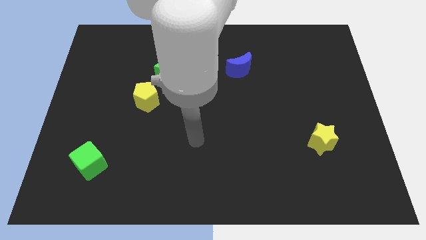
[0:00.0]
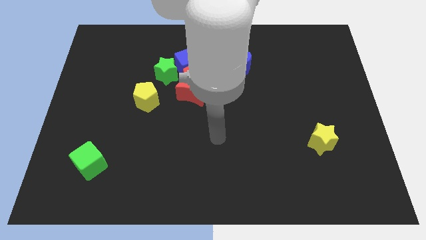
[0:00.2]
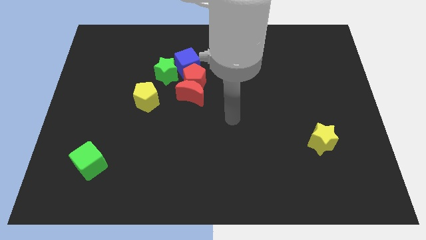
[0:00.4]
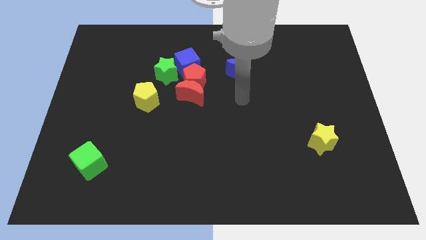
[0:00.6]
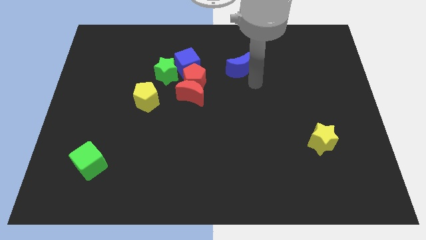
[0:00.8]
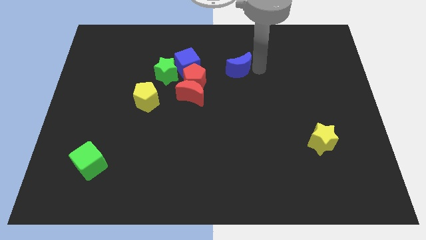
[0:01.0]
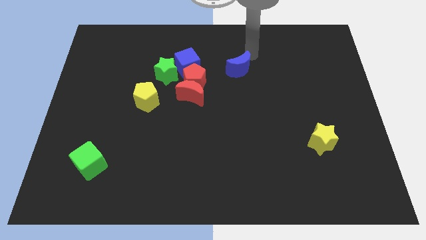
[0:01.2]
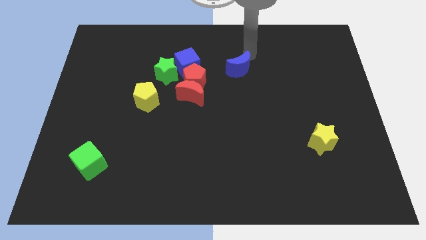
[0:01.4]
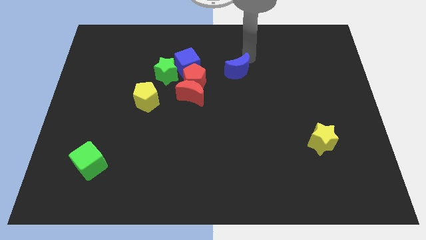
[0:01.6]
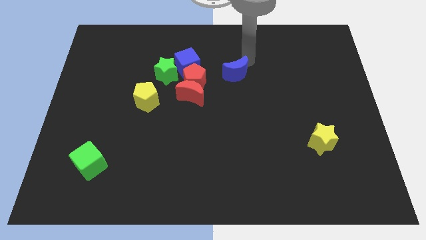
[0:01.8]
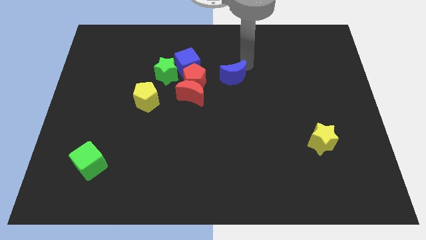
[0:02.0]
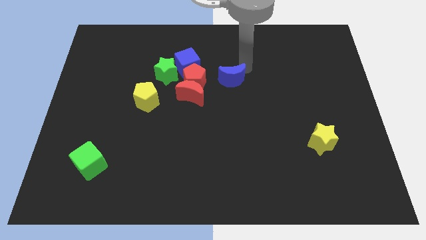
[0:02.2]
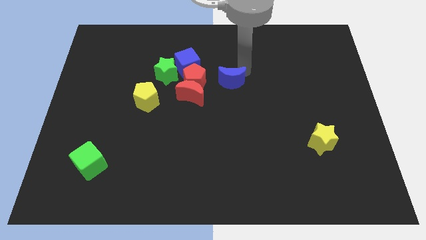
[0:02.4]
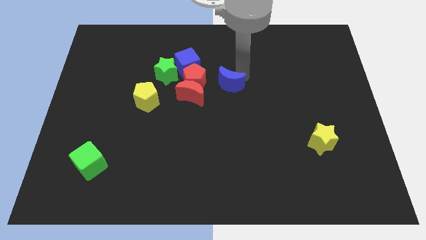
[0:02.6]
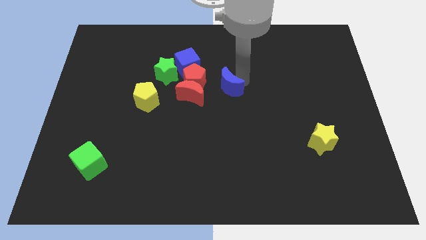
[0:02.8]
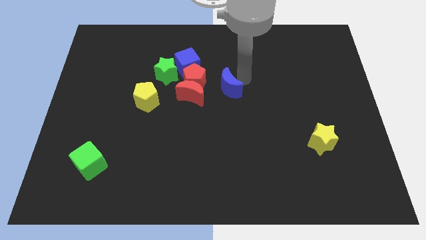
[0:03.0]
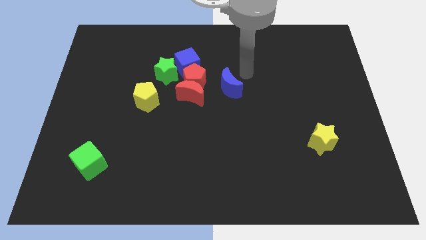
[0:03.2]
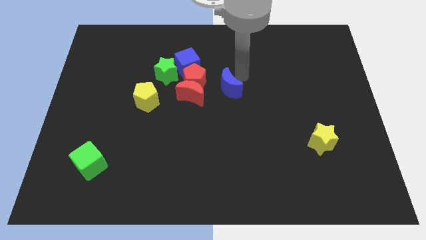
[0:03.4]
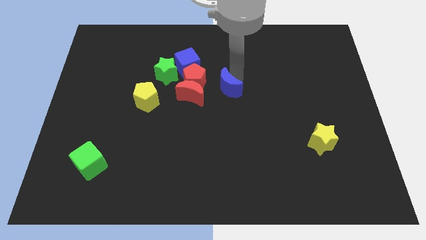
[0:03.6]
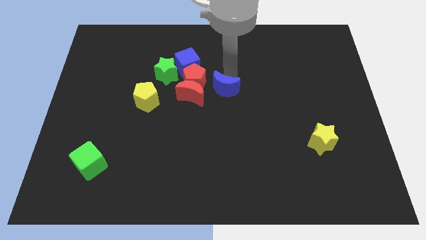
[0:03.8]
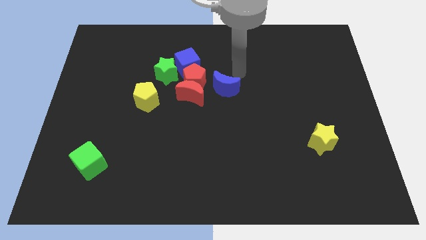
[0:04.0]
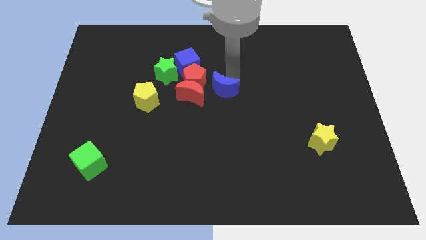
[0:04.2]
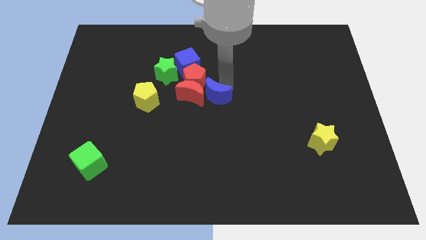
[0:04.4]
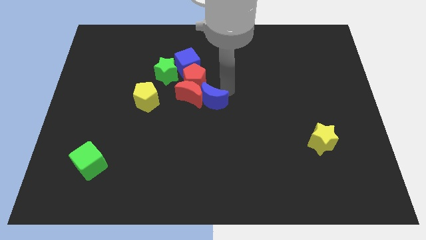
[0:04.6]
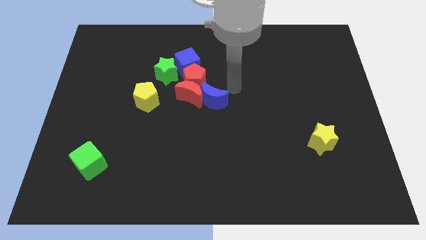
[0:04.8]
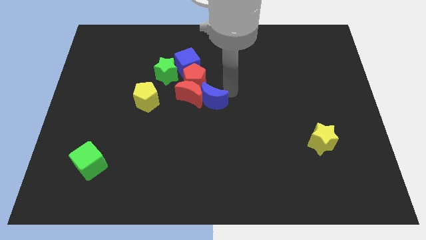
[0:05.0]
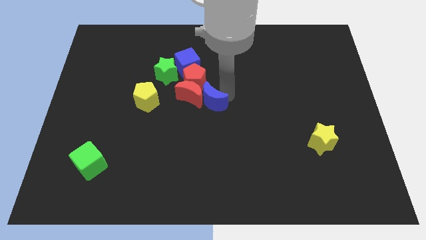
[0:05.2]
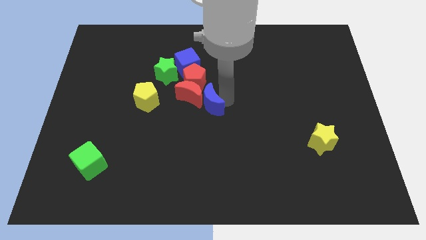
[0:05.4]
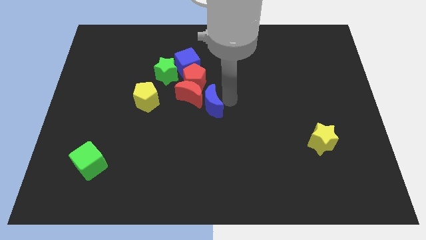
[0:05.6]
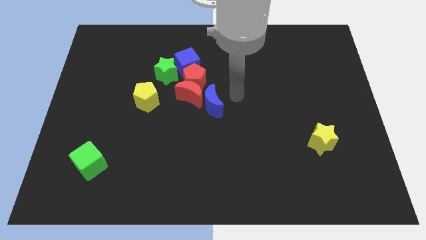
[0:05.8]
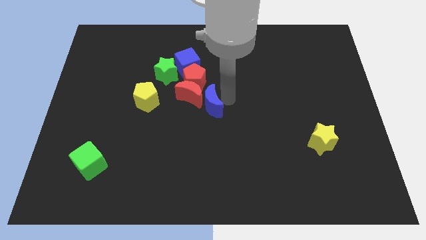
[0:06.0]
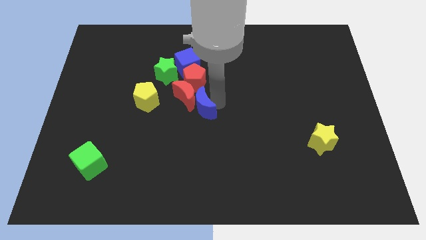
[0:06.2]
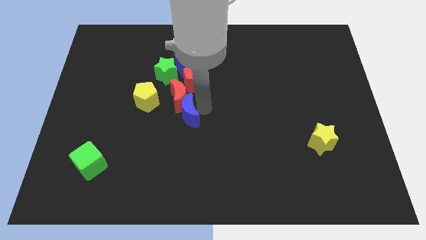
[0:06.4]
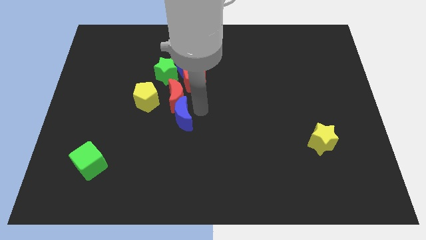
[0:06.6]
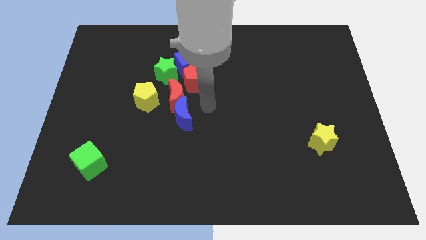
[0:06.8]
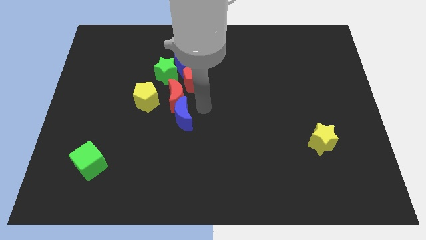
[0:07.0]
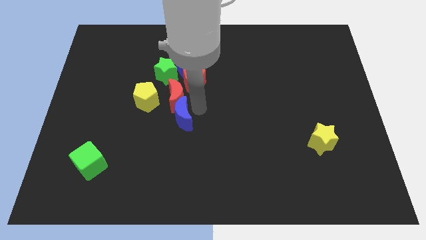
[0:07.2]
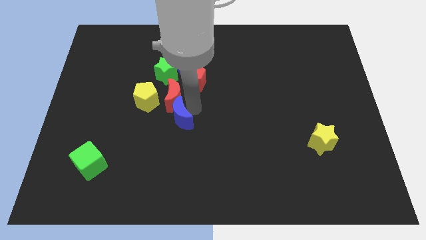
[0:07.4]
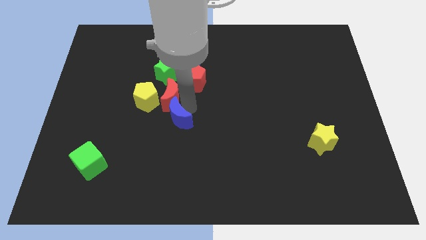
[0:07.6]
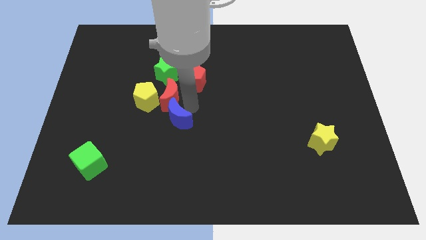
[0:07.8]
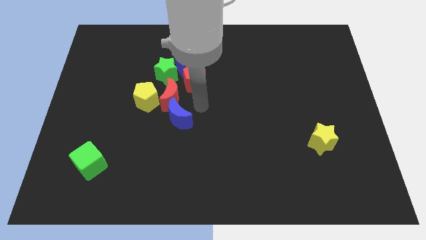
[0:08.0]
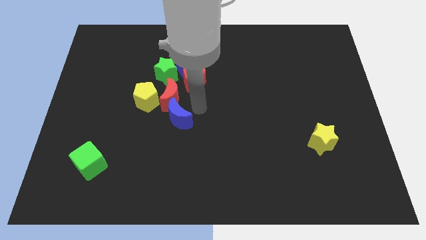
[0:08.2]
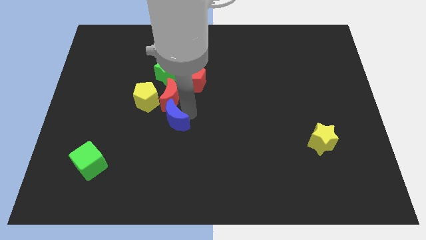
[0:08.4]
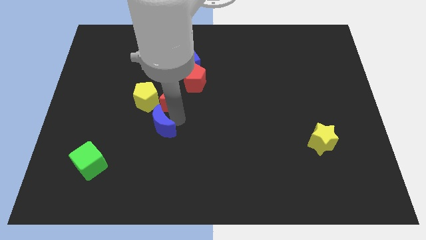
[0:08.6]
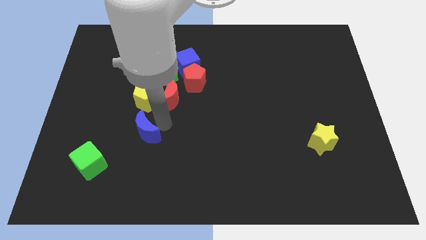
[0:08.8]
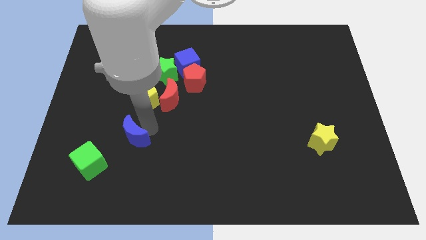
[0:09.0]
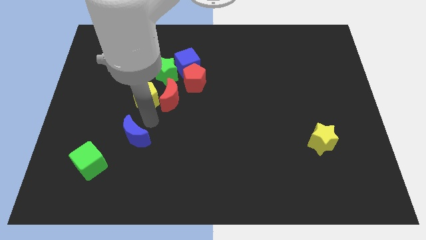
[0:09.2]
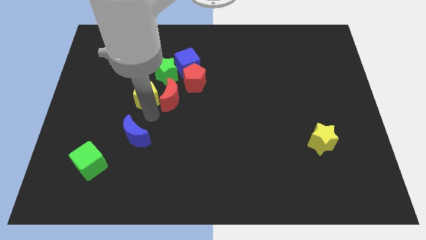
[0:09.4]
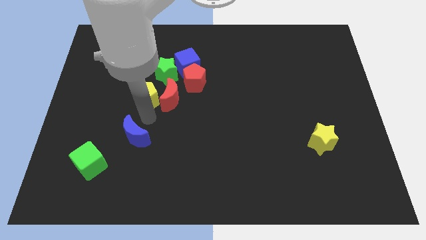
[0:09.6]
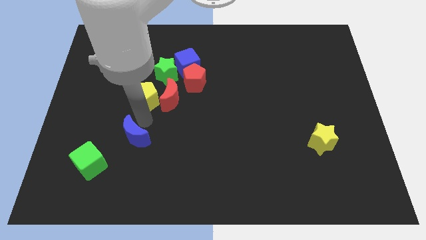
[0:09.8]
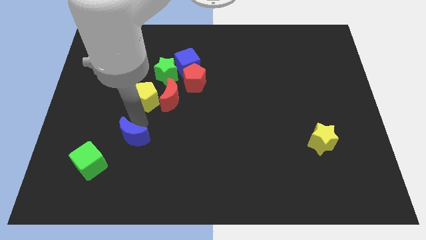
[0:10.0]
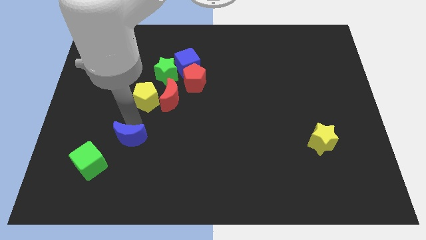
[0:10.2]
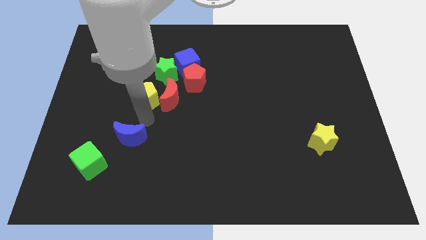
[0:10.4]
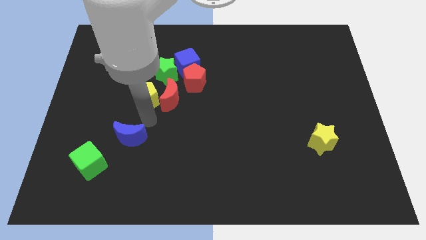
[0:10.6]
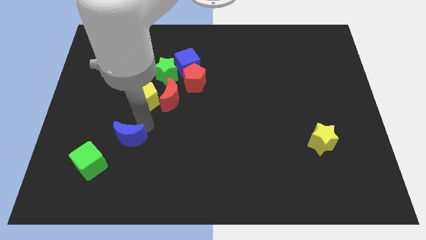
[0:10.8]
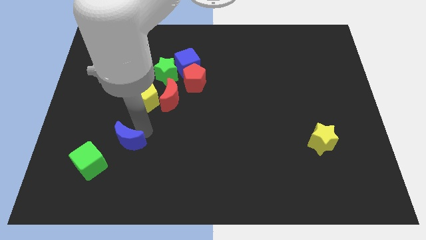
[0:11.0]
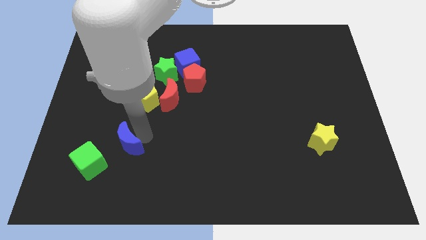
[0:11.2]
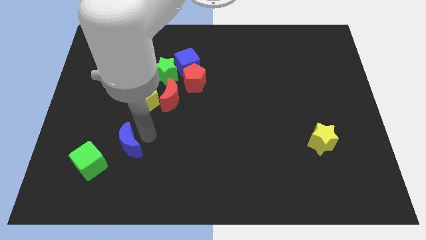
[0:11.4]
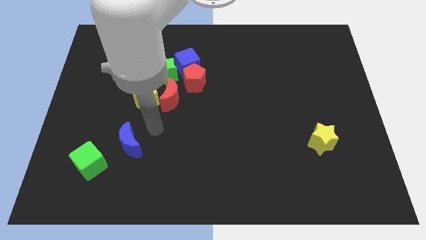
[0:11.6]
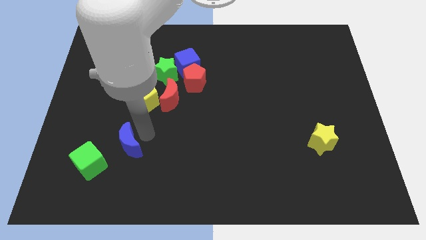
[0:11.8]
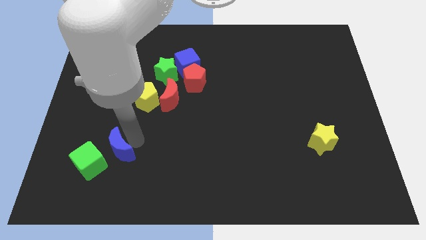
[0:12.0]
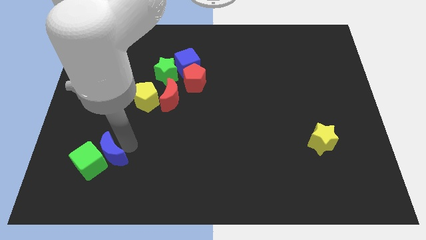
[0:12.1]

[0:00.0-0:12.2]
push the blue moon next to the green cube

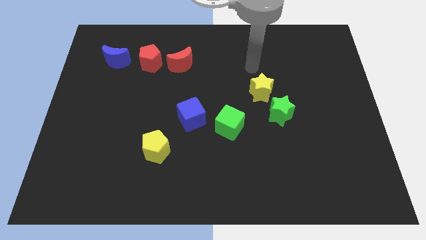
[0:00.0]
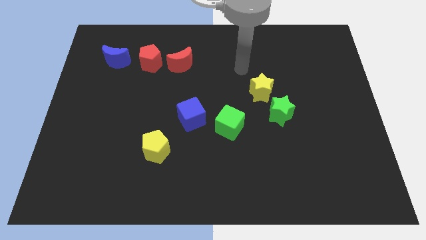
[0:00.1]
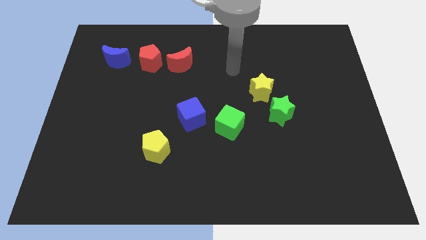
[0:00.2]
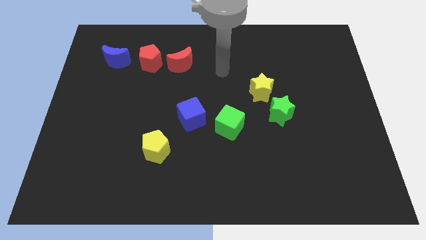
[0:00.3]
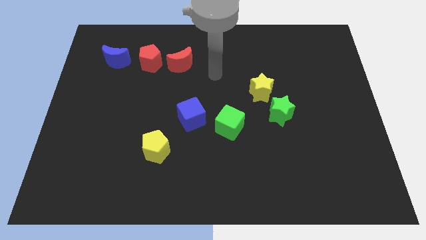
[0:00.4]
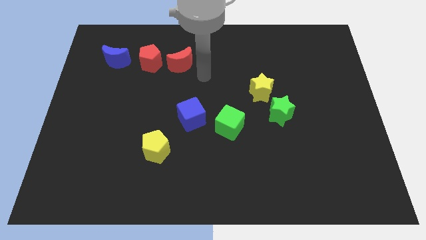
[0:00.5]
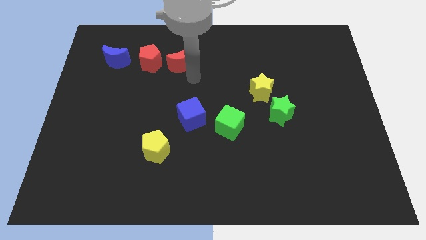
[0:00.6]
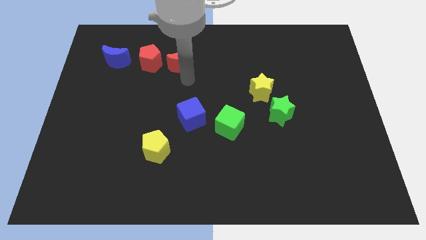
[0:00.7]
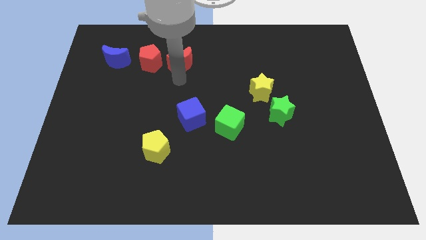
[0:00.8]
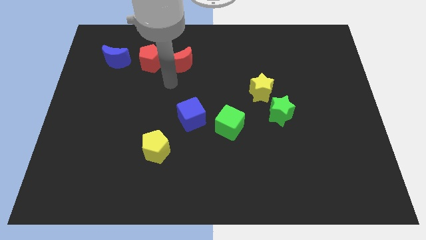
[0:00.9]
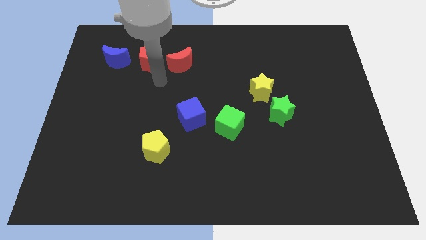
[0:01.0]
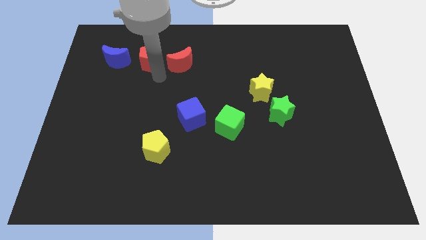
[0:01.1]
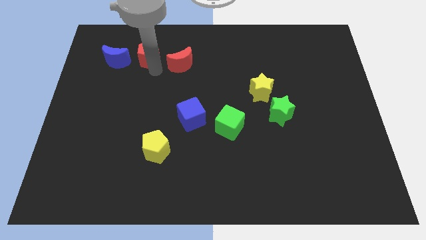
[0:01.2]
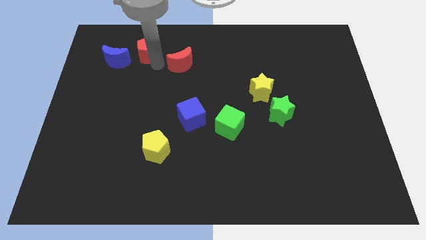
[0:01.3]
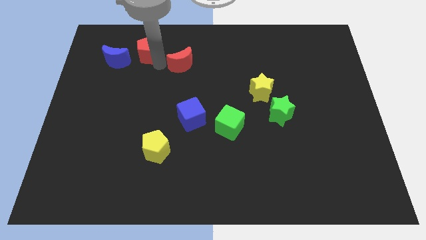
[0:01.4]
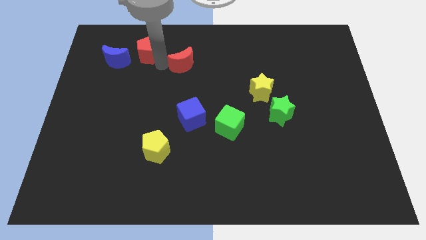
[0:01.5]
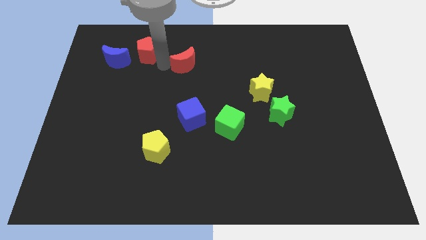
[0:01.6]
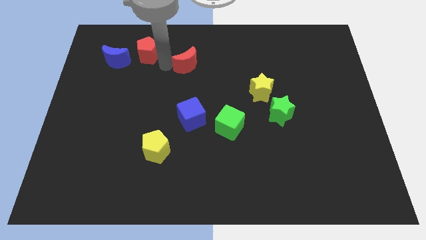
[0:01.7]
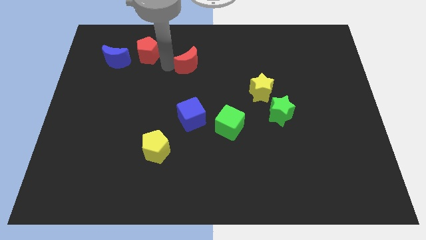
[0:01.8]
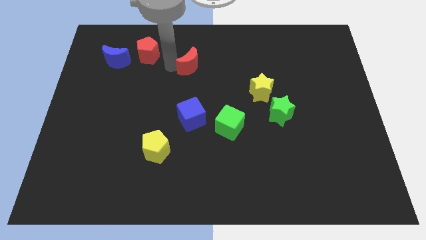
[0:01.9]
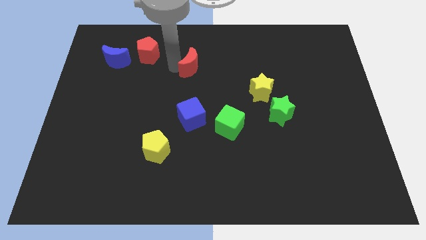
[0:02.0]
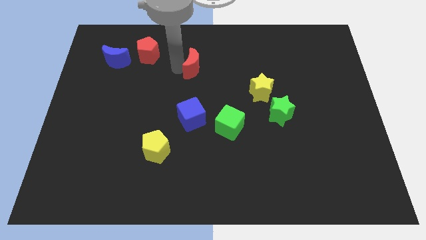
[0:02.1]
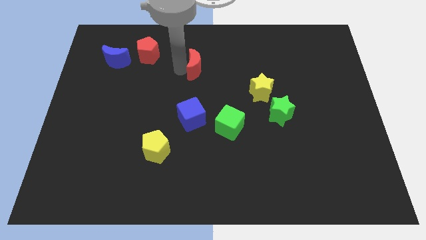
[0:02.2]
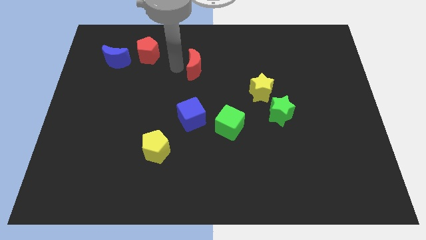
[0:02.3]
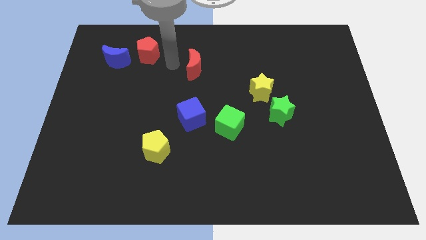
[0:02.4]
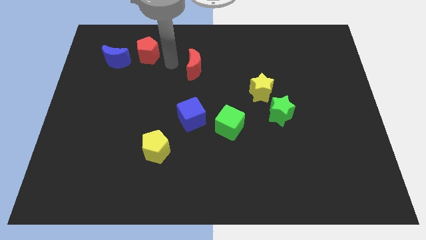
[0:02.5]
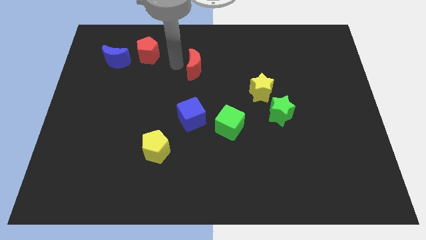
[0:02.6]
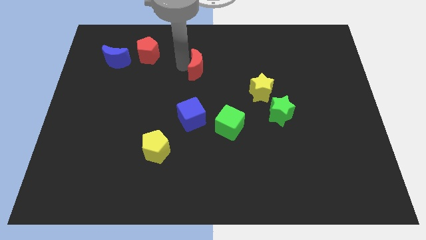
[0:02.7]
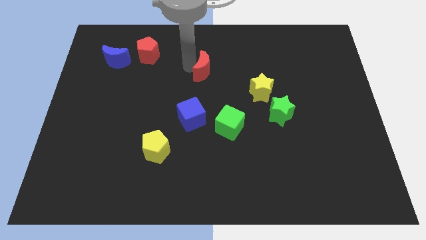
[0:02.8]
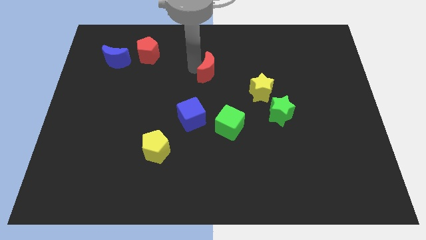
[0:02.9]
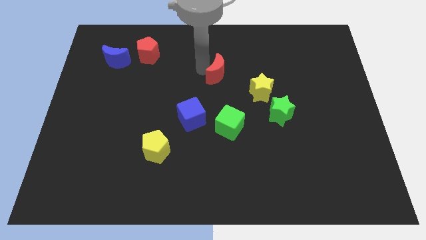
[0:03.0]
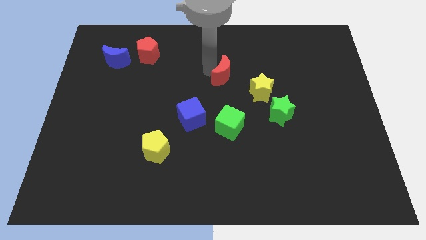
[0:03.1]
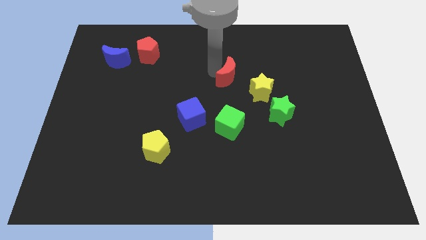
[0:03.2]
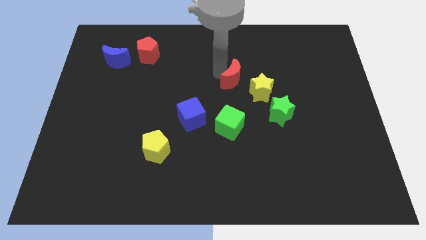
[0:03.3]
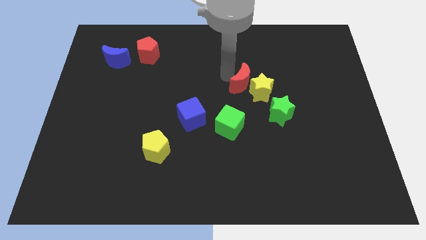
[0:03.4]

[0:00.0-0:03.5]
put the red moon close to the yellow star
